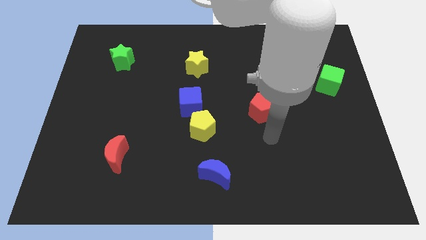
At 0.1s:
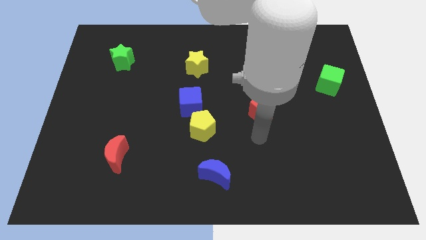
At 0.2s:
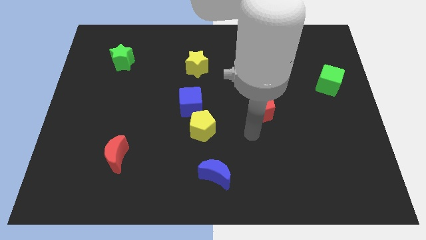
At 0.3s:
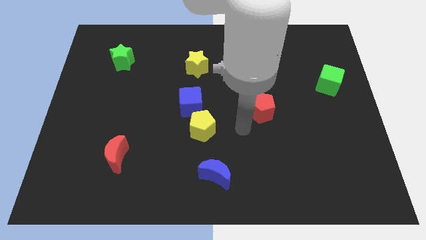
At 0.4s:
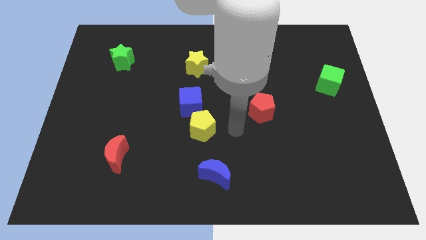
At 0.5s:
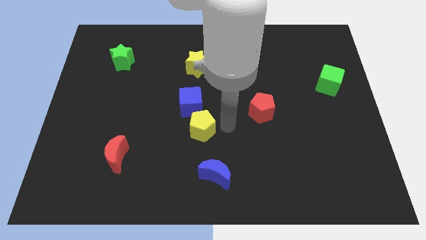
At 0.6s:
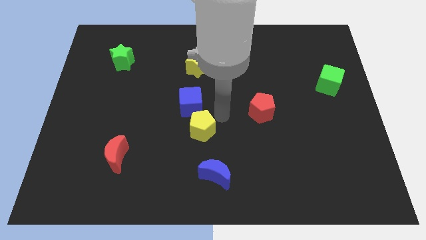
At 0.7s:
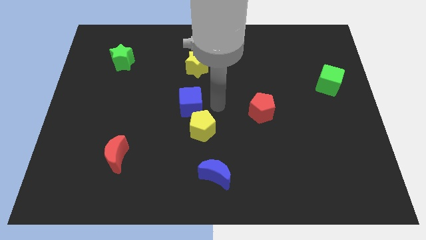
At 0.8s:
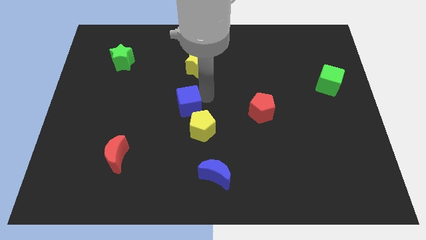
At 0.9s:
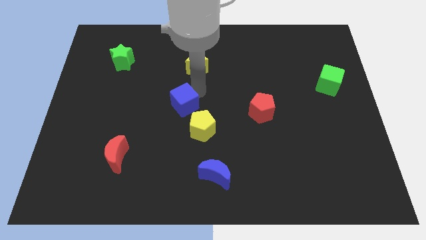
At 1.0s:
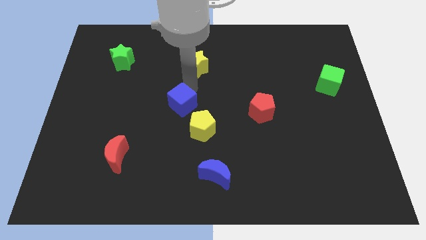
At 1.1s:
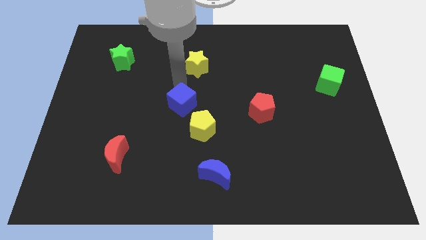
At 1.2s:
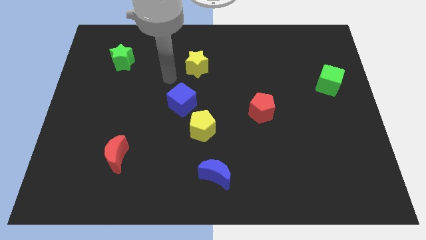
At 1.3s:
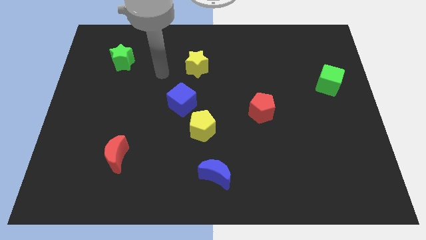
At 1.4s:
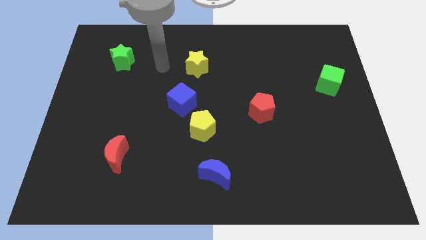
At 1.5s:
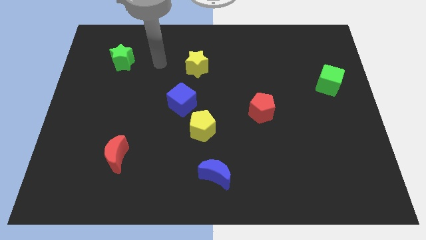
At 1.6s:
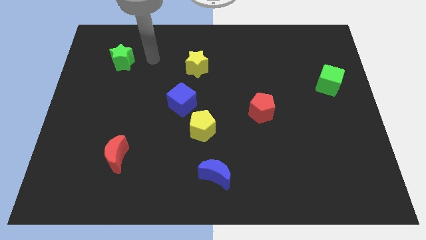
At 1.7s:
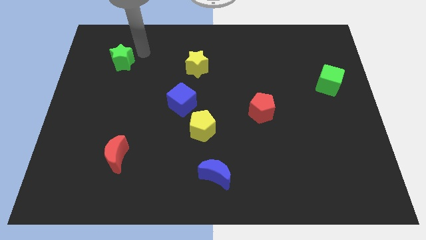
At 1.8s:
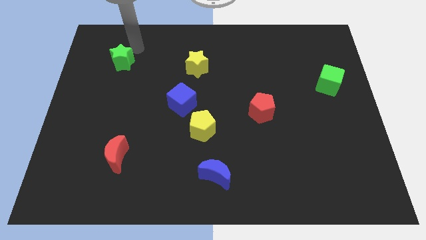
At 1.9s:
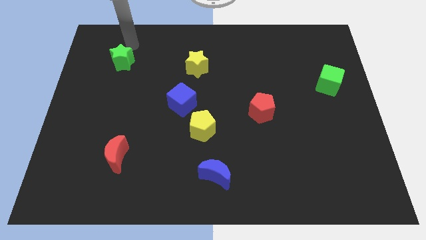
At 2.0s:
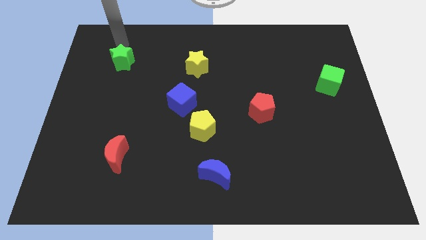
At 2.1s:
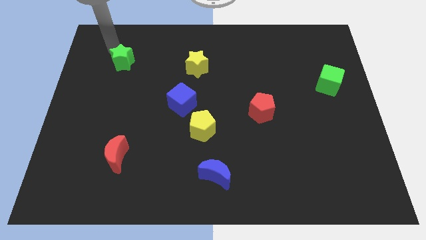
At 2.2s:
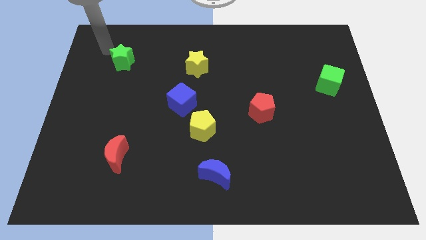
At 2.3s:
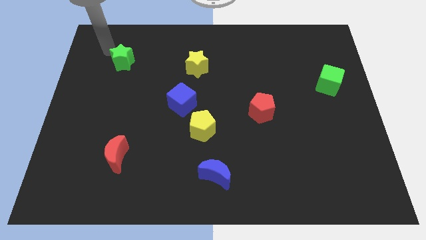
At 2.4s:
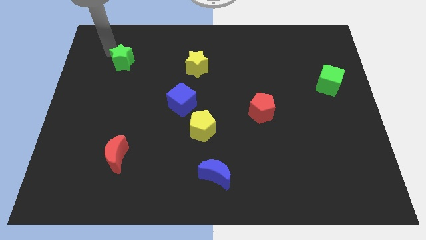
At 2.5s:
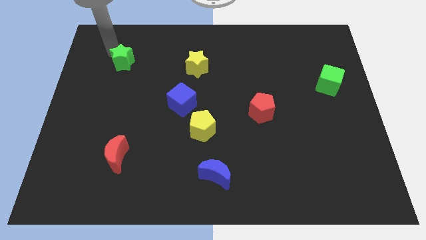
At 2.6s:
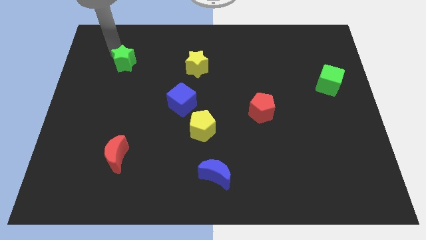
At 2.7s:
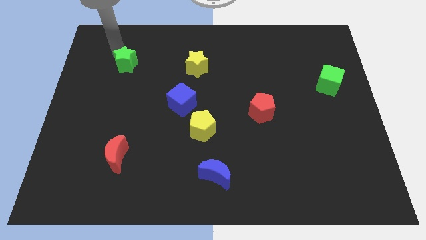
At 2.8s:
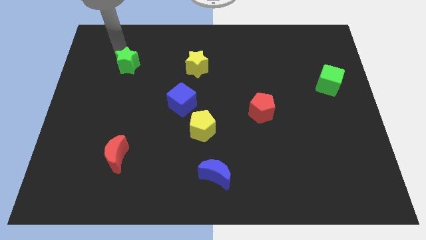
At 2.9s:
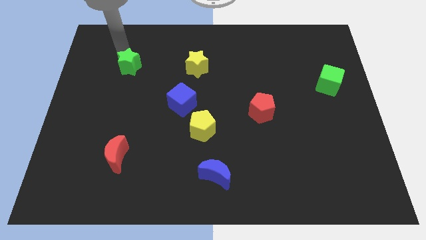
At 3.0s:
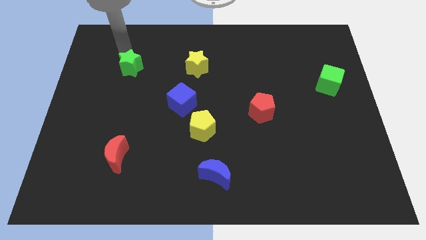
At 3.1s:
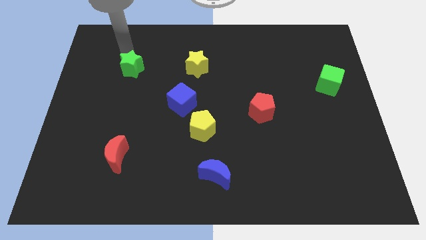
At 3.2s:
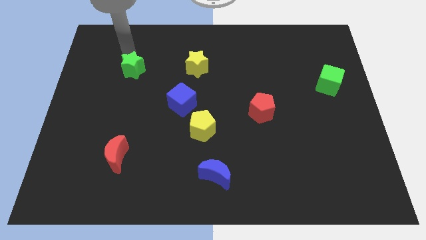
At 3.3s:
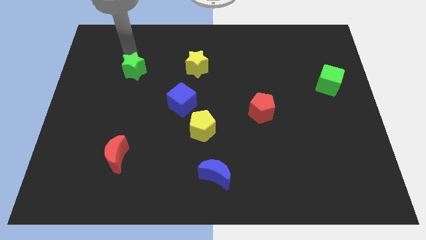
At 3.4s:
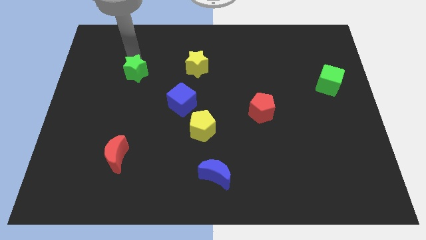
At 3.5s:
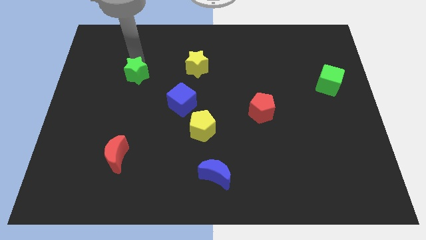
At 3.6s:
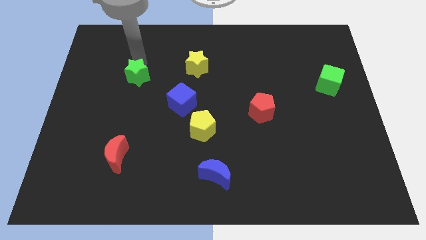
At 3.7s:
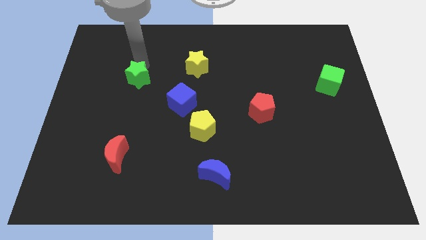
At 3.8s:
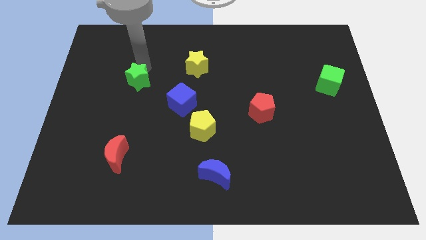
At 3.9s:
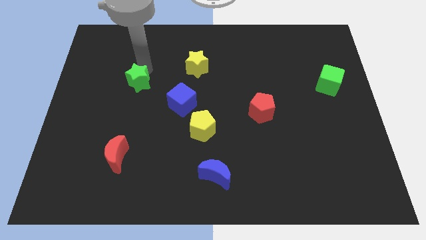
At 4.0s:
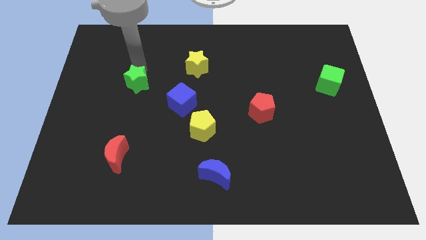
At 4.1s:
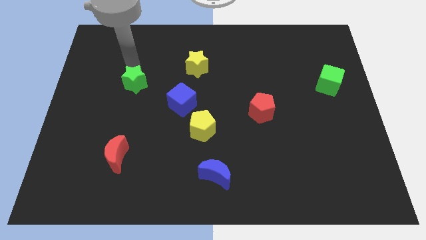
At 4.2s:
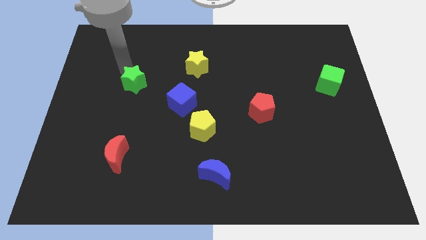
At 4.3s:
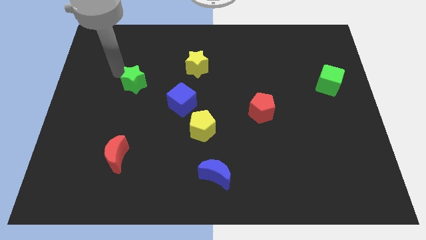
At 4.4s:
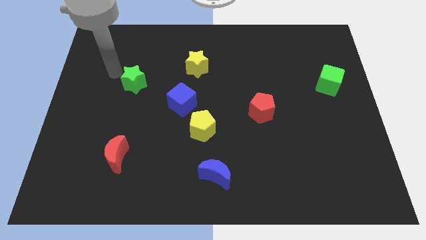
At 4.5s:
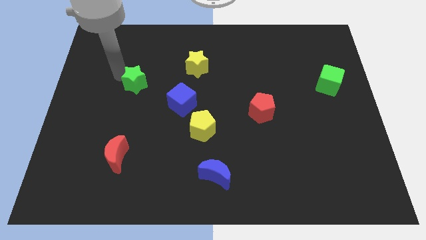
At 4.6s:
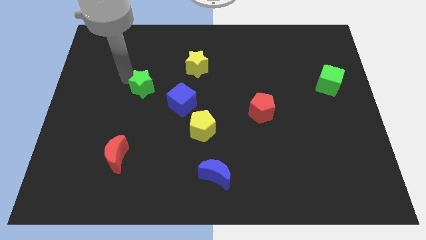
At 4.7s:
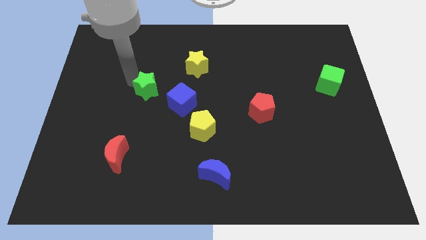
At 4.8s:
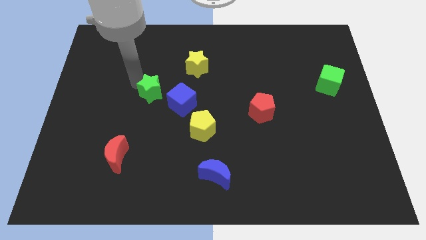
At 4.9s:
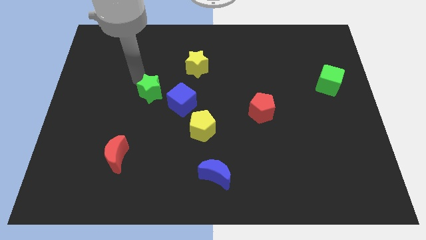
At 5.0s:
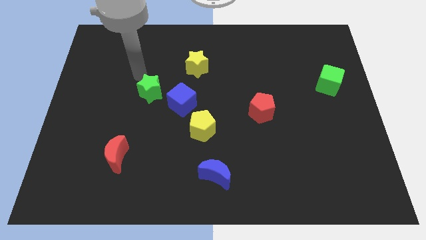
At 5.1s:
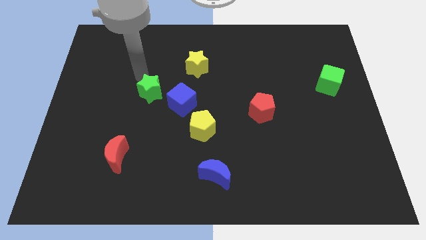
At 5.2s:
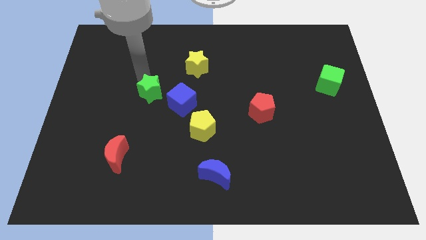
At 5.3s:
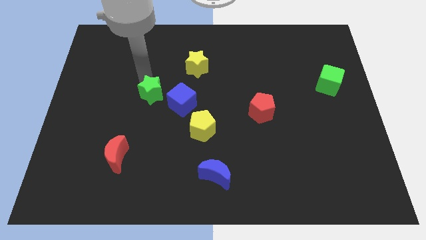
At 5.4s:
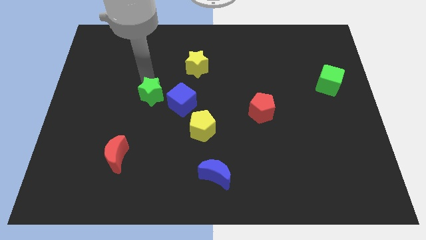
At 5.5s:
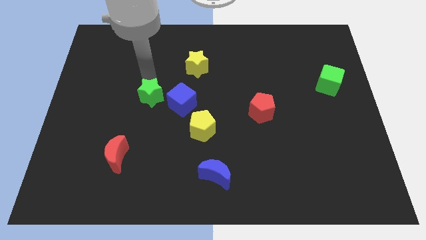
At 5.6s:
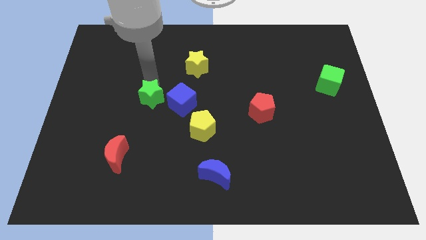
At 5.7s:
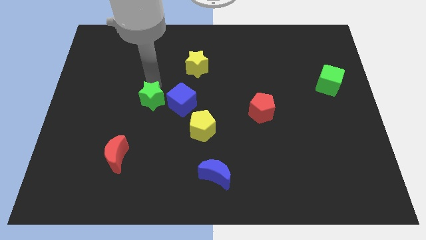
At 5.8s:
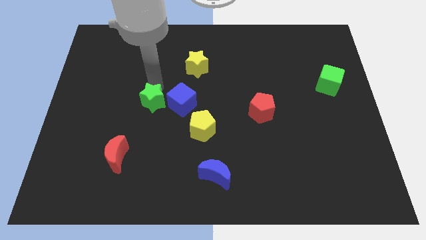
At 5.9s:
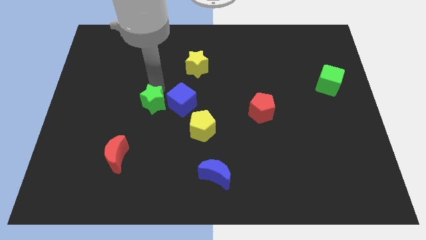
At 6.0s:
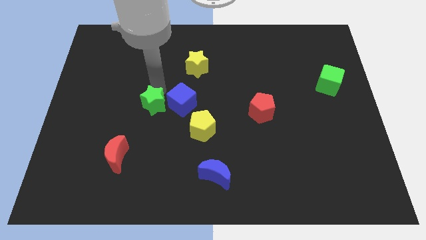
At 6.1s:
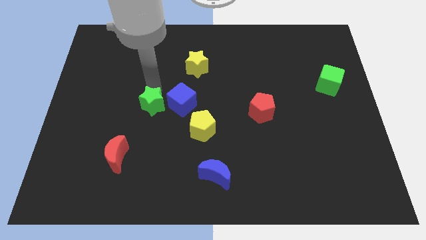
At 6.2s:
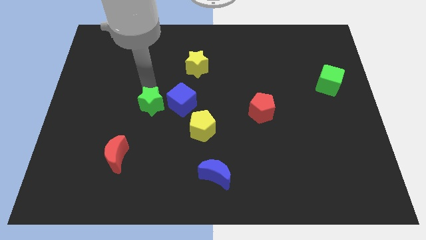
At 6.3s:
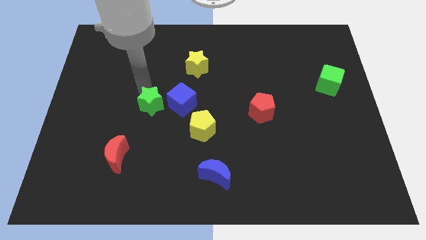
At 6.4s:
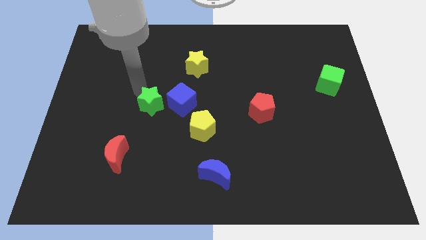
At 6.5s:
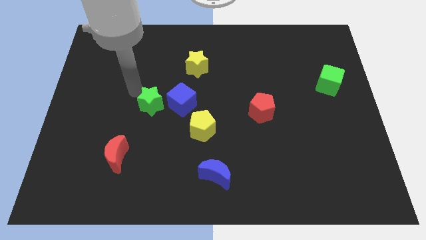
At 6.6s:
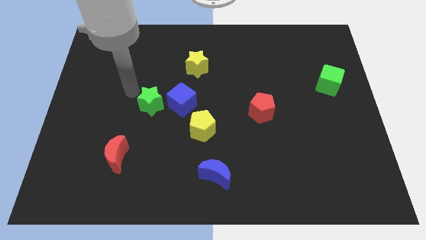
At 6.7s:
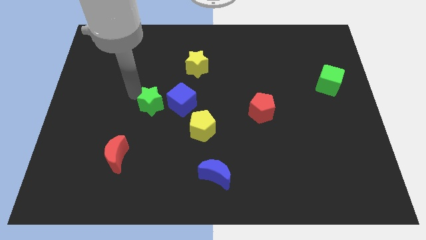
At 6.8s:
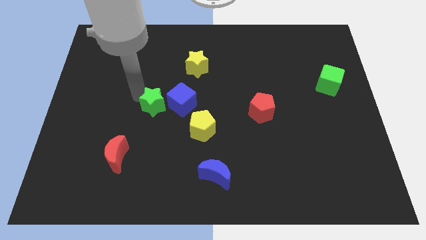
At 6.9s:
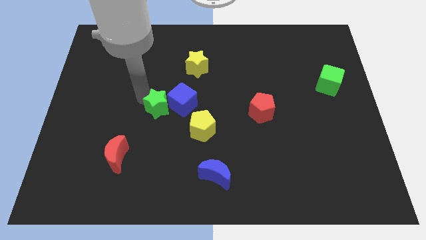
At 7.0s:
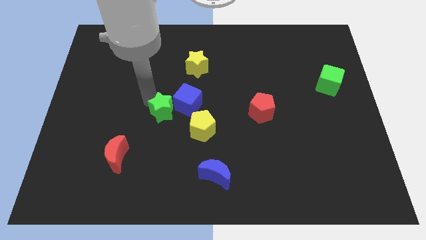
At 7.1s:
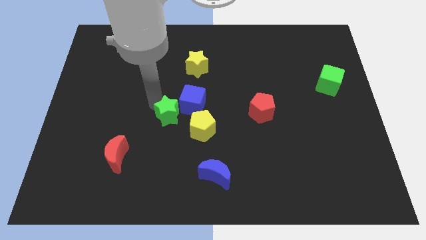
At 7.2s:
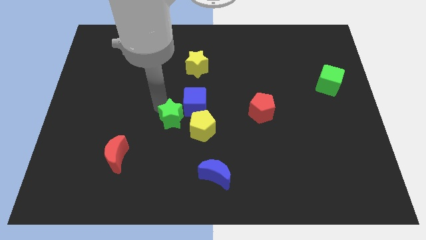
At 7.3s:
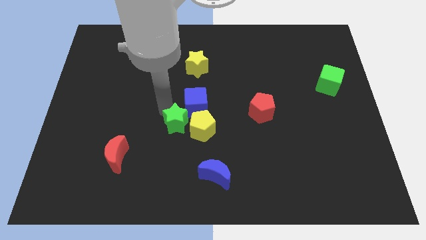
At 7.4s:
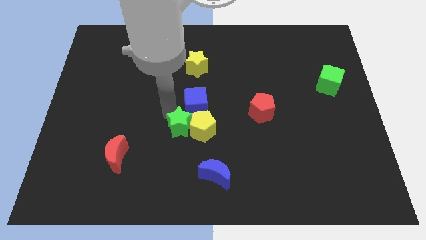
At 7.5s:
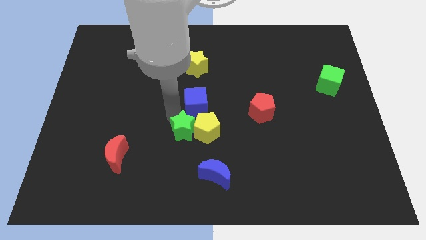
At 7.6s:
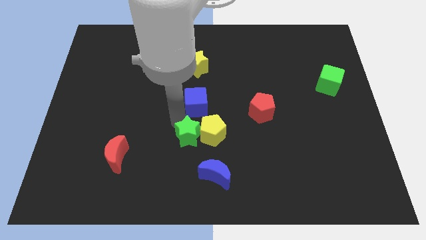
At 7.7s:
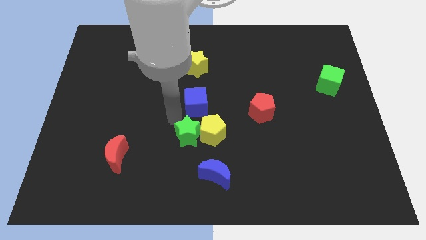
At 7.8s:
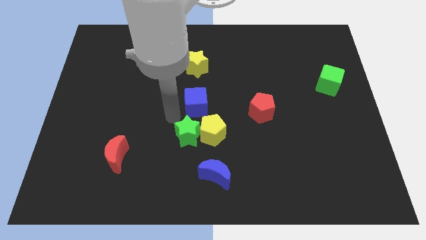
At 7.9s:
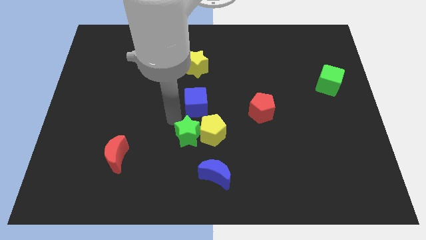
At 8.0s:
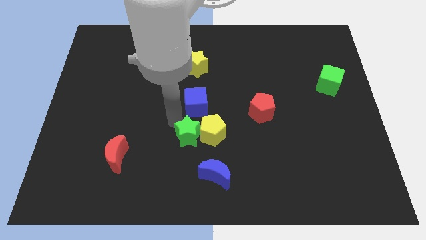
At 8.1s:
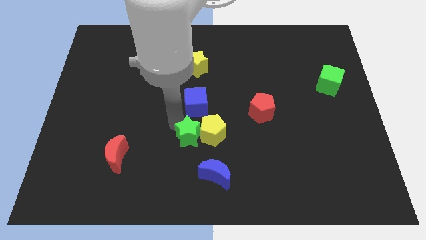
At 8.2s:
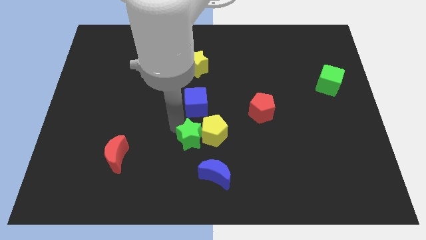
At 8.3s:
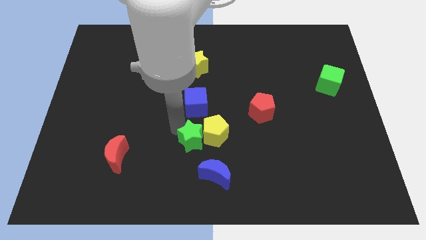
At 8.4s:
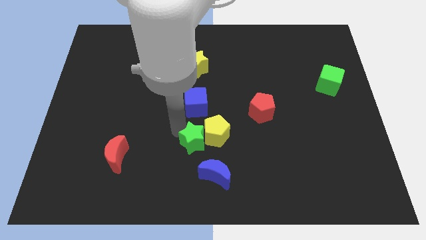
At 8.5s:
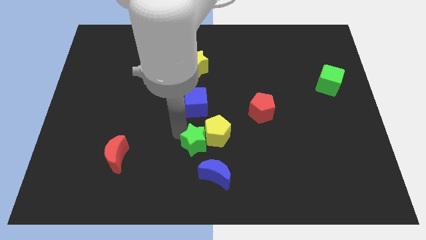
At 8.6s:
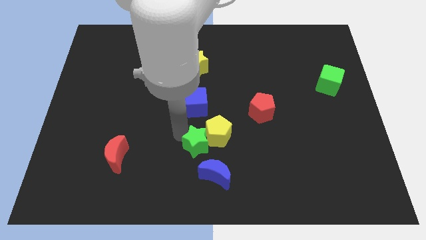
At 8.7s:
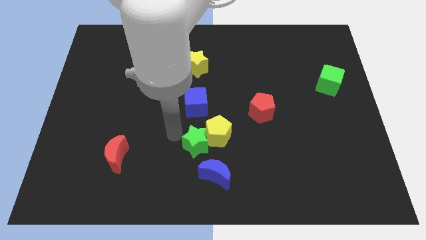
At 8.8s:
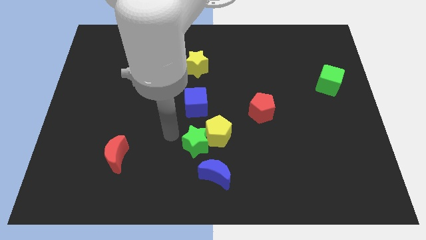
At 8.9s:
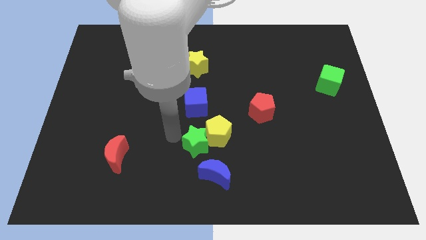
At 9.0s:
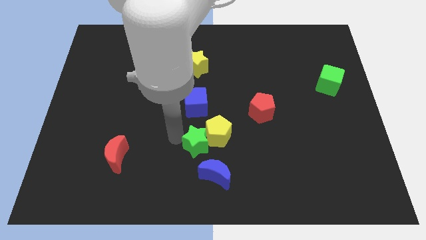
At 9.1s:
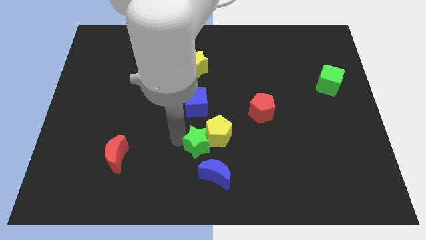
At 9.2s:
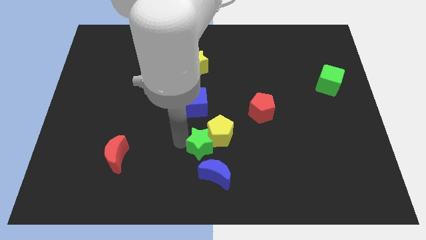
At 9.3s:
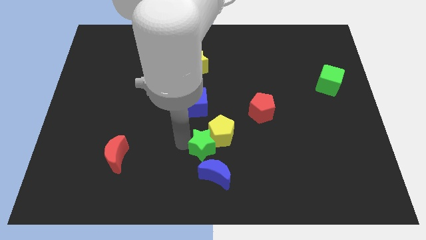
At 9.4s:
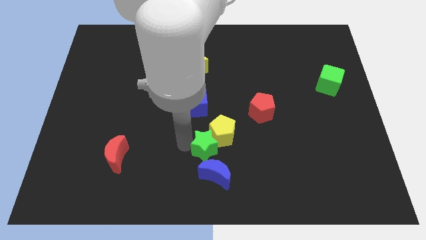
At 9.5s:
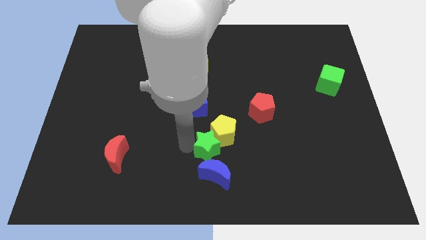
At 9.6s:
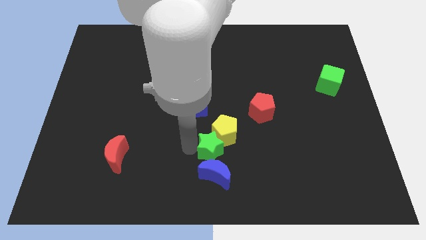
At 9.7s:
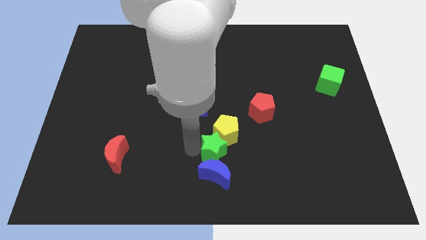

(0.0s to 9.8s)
push the green star to the top right of the blue moon
